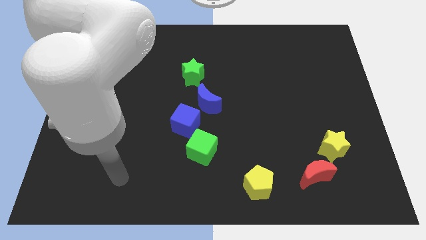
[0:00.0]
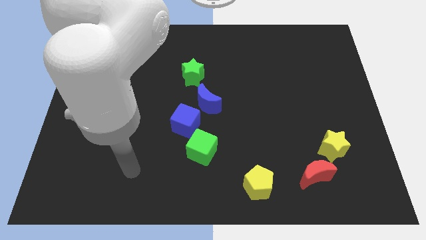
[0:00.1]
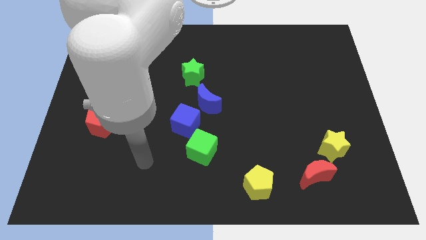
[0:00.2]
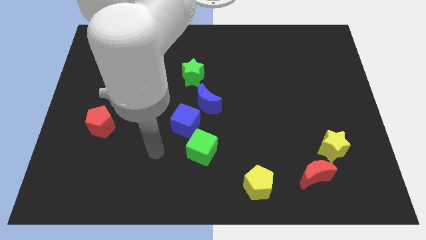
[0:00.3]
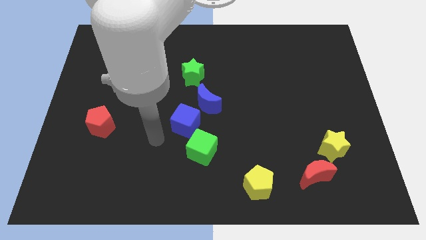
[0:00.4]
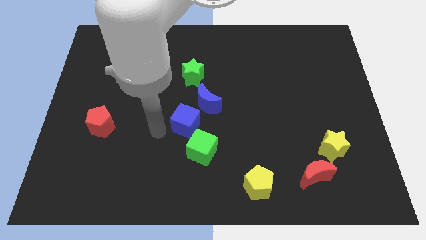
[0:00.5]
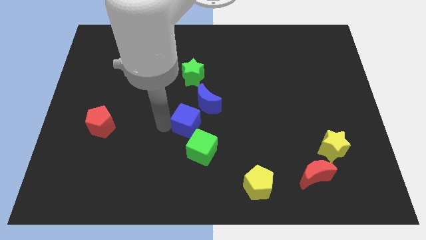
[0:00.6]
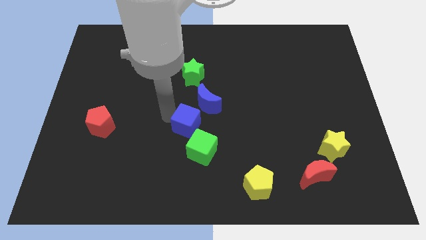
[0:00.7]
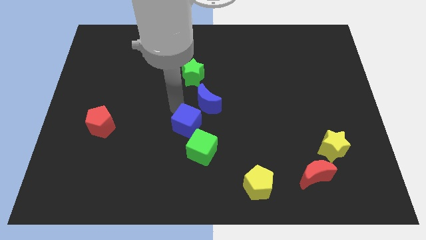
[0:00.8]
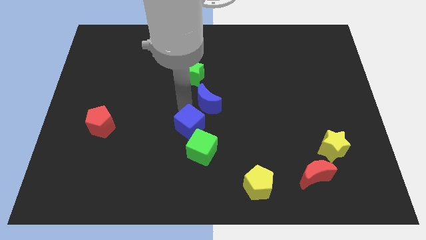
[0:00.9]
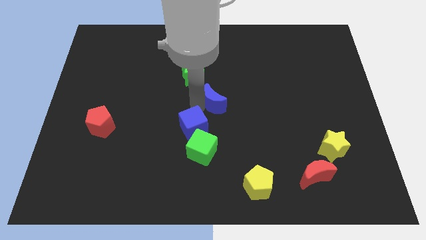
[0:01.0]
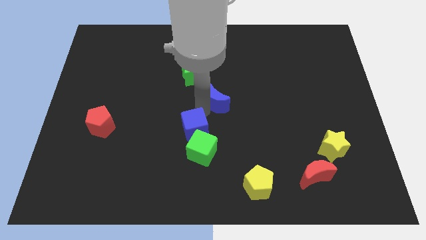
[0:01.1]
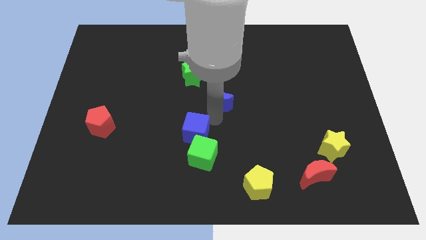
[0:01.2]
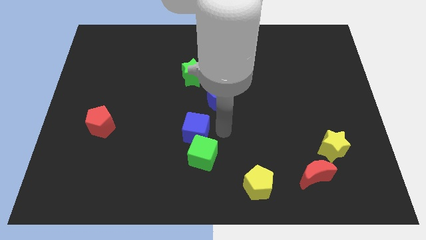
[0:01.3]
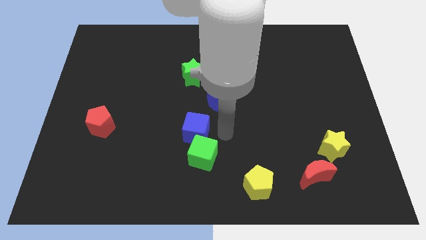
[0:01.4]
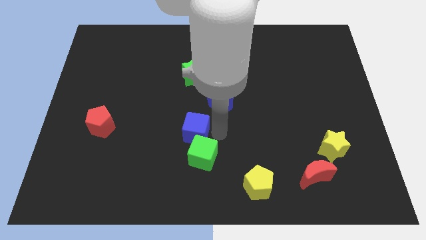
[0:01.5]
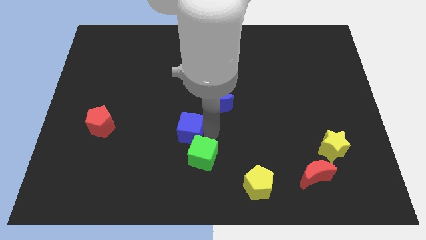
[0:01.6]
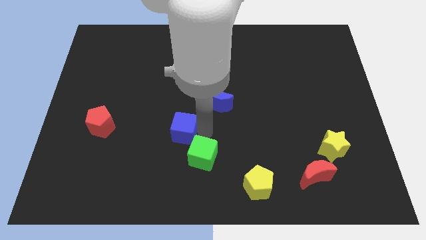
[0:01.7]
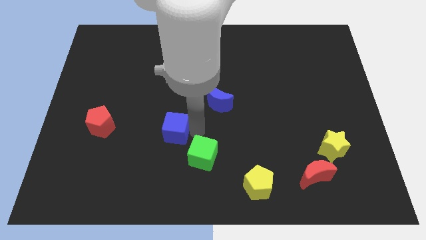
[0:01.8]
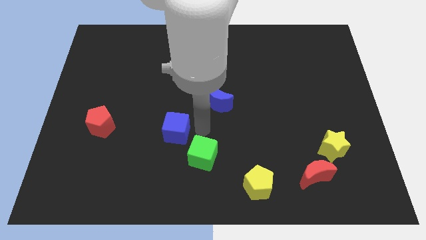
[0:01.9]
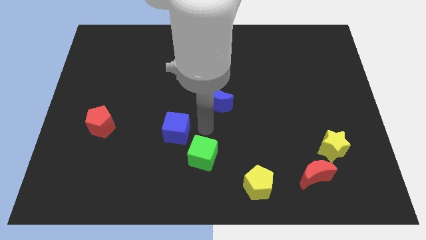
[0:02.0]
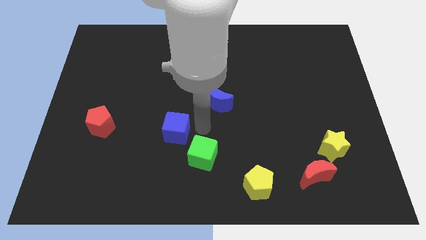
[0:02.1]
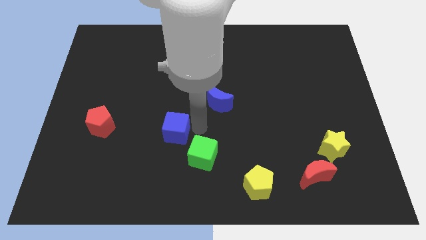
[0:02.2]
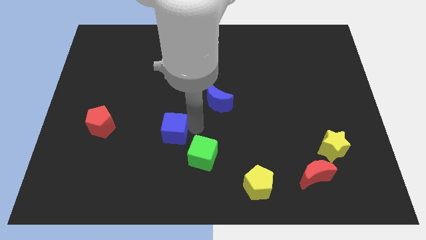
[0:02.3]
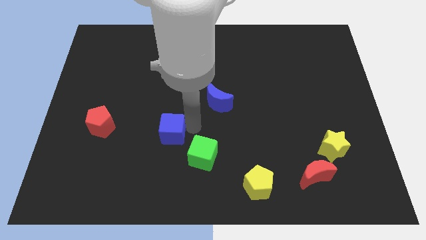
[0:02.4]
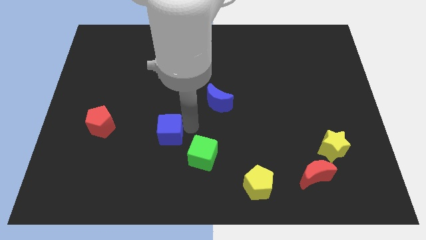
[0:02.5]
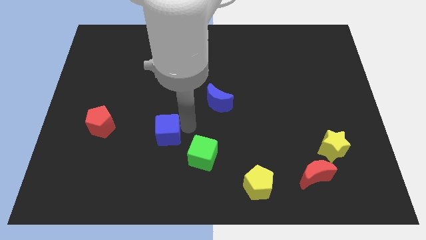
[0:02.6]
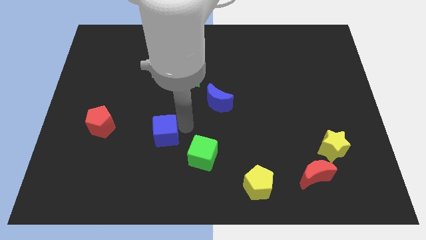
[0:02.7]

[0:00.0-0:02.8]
pull the blue cube apart from the blue moon and green cube

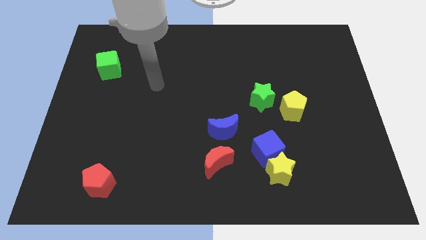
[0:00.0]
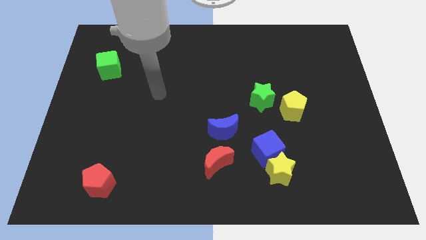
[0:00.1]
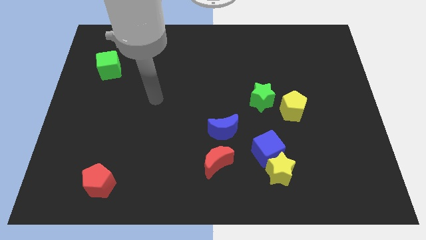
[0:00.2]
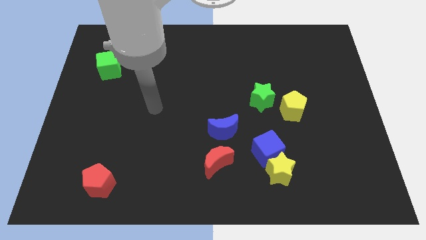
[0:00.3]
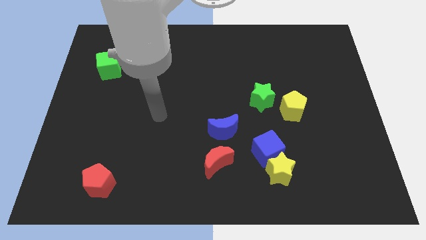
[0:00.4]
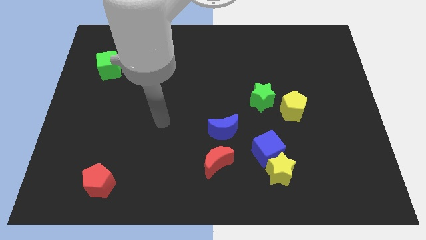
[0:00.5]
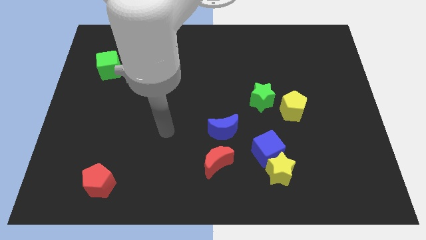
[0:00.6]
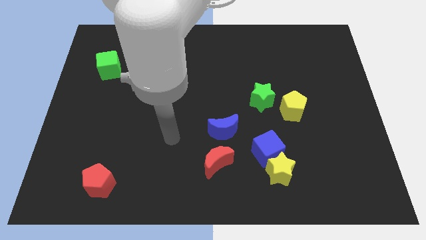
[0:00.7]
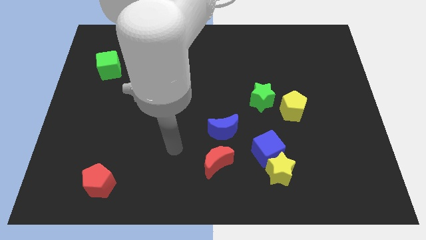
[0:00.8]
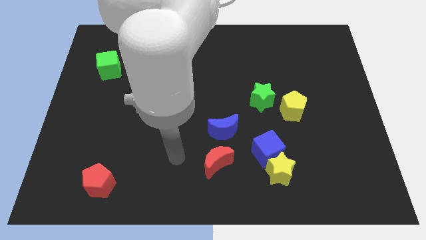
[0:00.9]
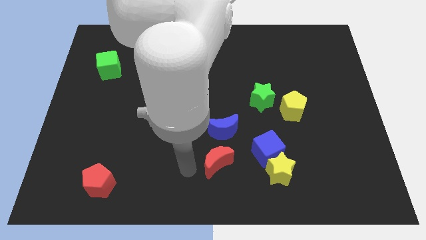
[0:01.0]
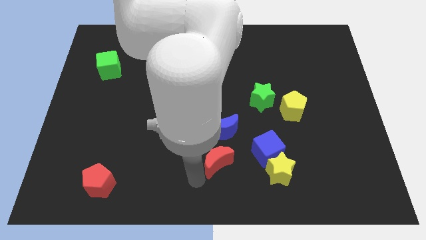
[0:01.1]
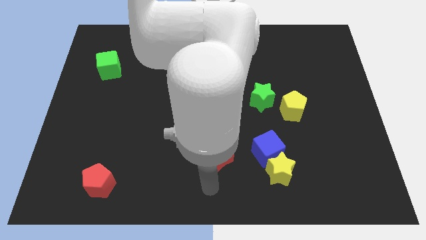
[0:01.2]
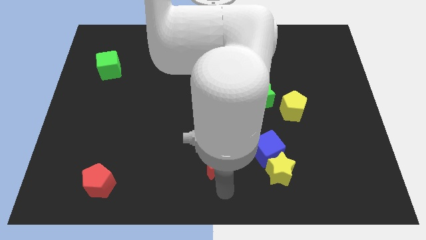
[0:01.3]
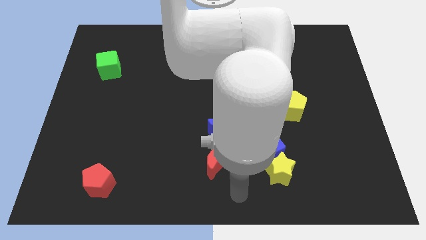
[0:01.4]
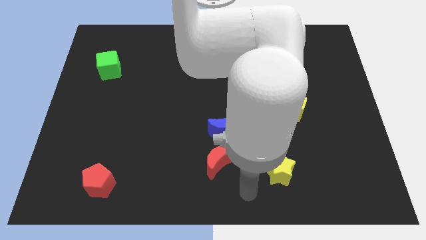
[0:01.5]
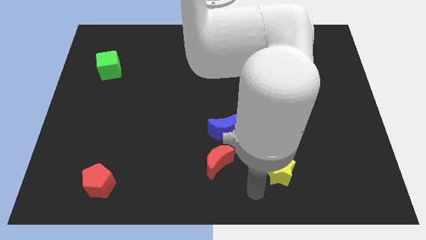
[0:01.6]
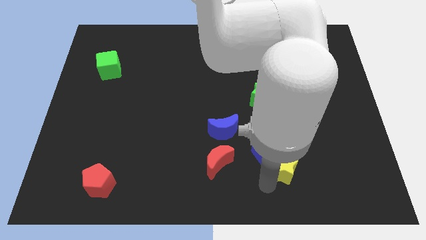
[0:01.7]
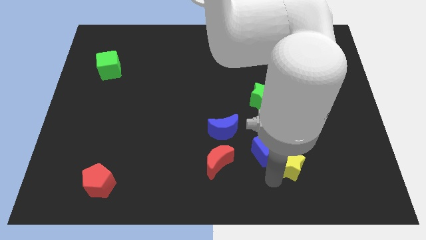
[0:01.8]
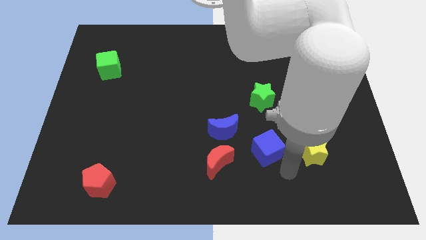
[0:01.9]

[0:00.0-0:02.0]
pull the blue cube apart from the yellow star

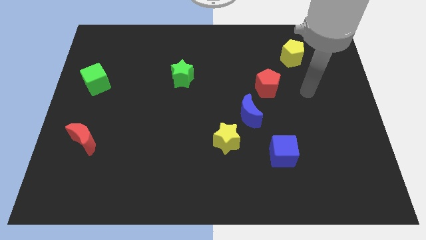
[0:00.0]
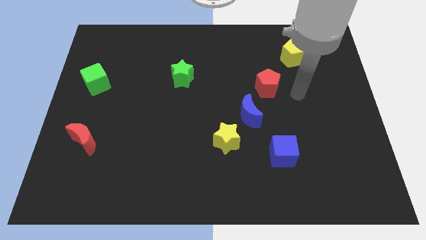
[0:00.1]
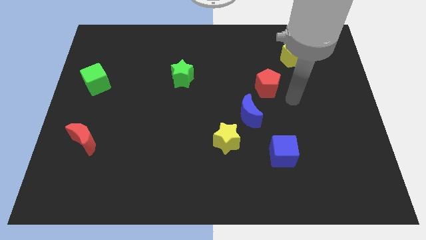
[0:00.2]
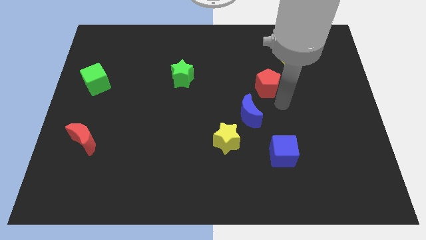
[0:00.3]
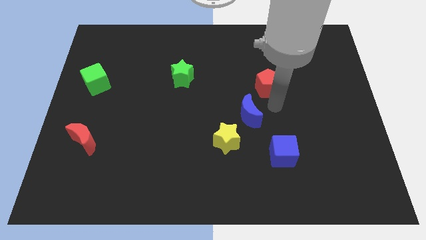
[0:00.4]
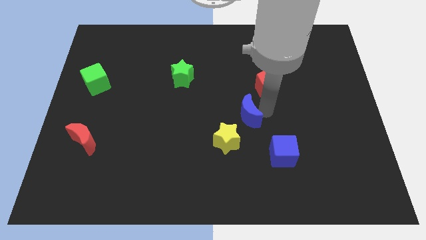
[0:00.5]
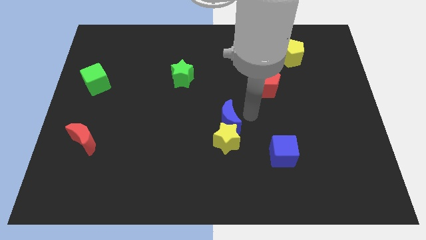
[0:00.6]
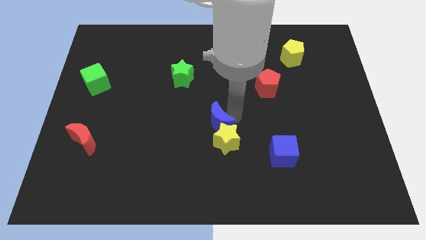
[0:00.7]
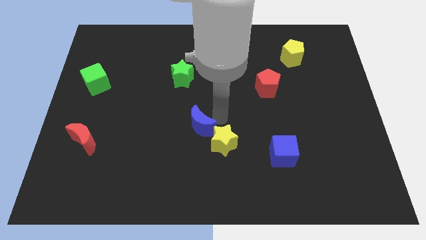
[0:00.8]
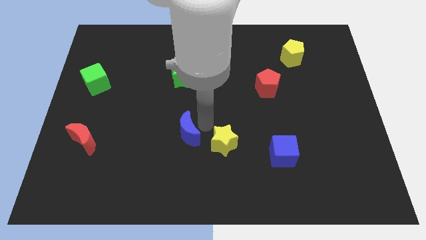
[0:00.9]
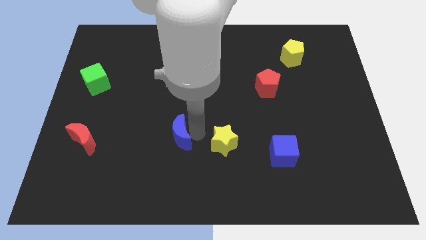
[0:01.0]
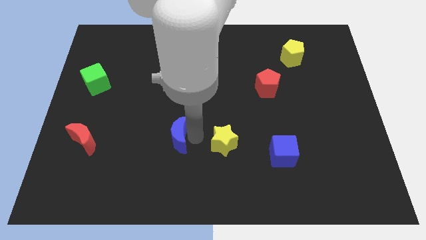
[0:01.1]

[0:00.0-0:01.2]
separate the yellow star from the blue moon

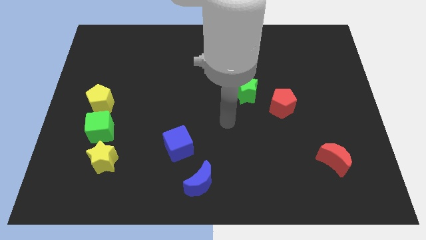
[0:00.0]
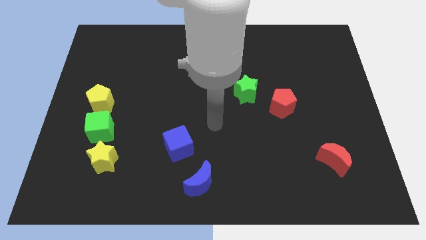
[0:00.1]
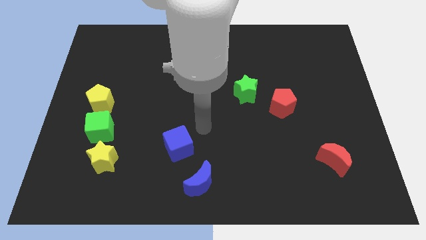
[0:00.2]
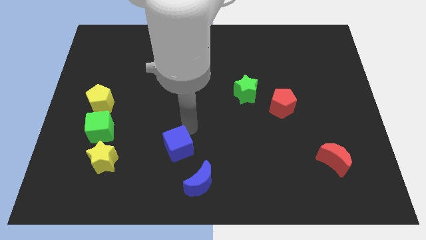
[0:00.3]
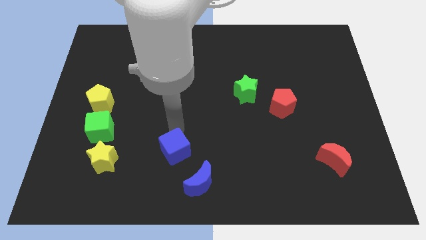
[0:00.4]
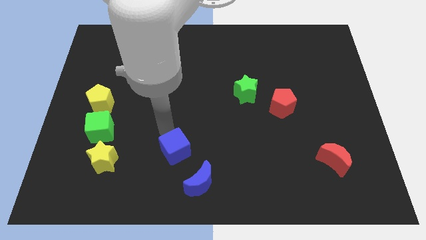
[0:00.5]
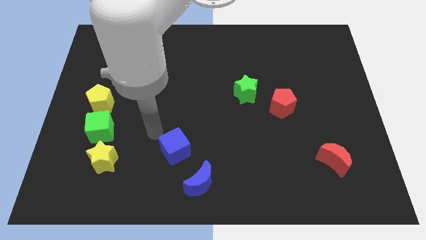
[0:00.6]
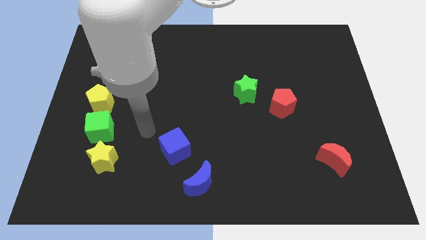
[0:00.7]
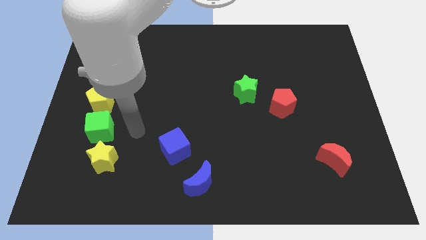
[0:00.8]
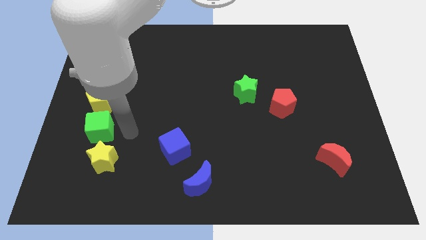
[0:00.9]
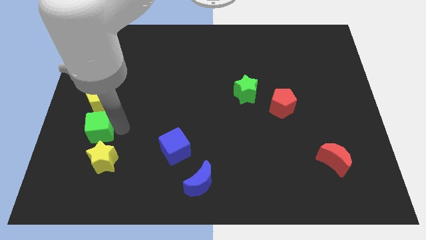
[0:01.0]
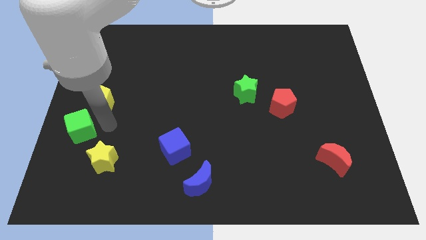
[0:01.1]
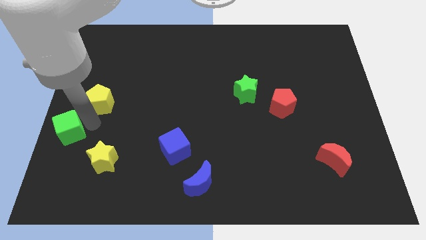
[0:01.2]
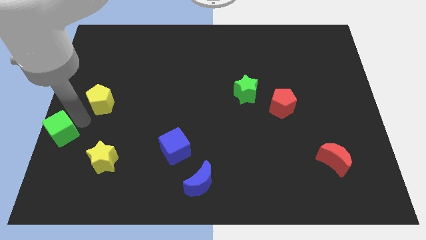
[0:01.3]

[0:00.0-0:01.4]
move the yellow pentagon away from the green cube

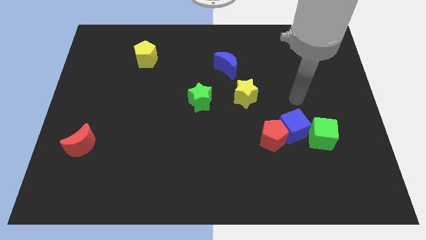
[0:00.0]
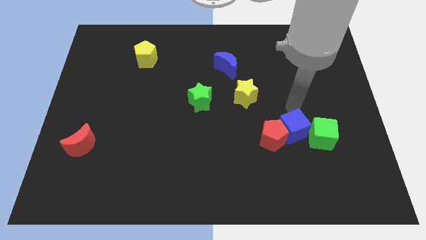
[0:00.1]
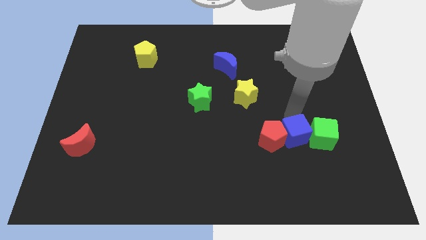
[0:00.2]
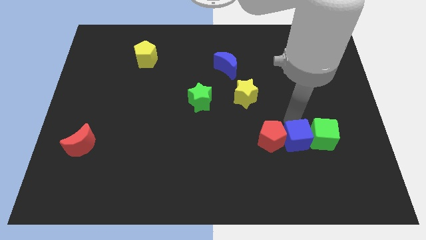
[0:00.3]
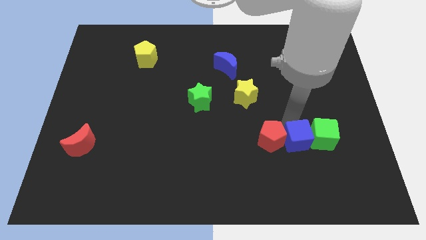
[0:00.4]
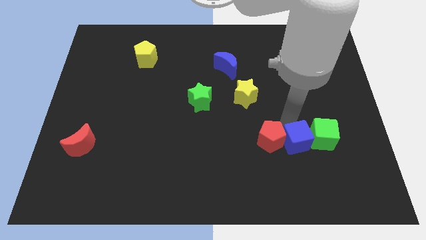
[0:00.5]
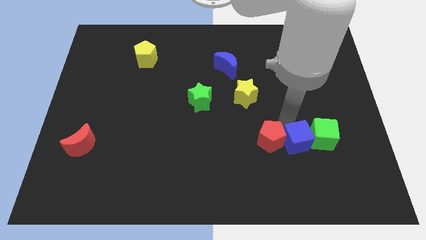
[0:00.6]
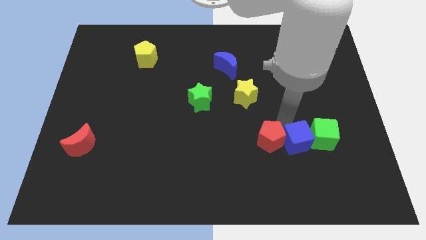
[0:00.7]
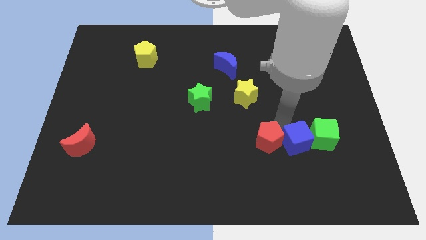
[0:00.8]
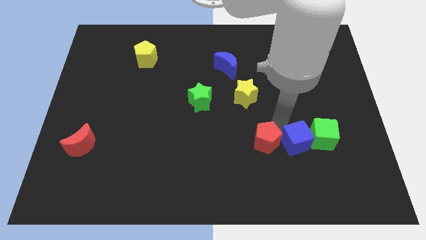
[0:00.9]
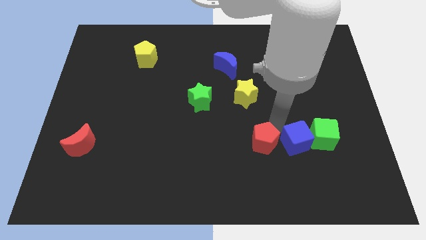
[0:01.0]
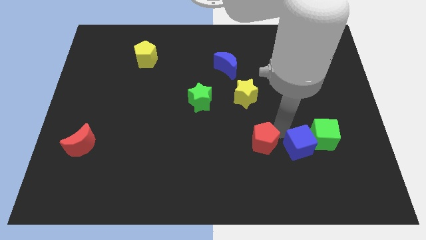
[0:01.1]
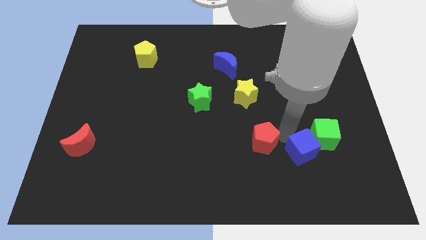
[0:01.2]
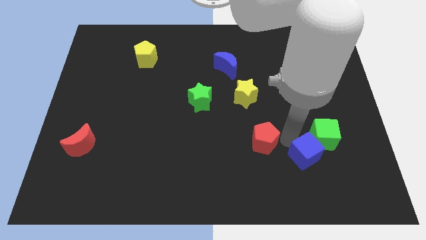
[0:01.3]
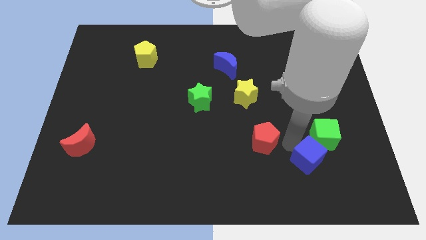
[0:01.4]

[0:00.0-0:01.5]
separate the red pentagon from the blue cube
